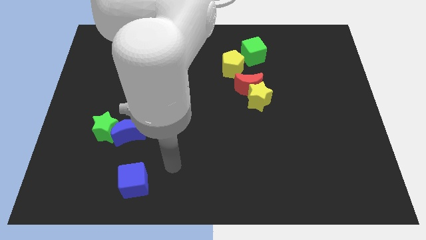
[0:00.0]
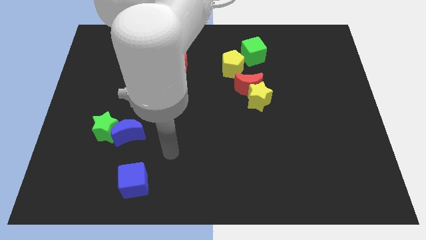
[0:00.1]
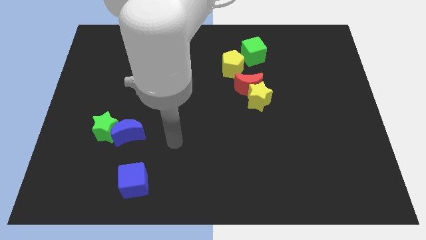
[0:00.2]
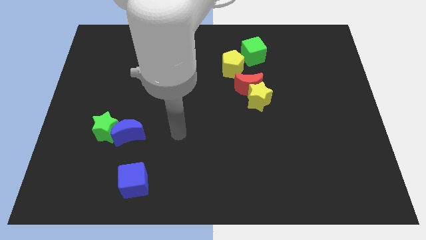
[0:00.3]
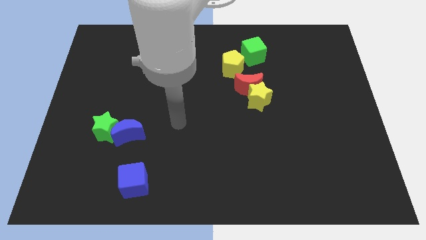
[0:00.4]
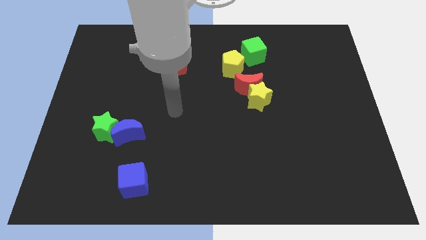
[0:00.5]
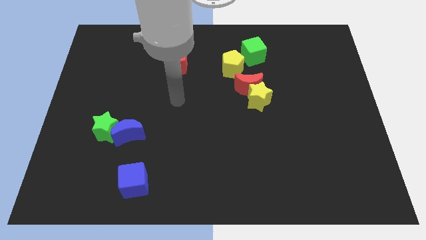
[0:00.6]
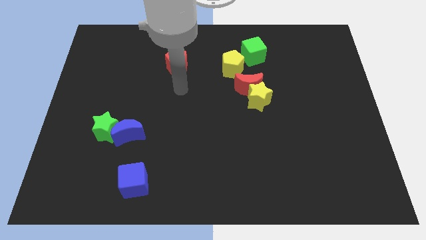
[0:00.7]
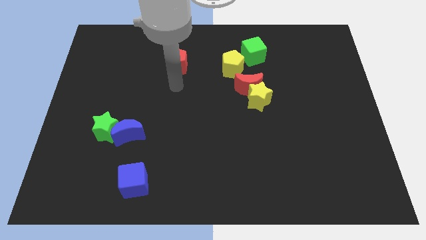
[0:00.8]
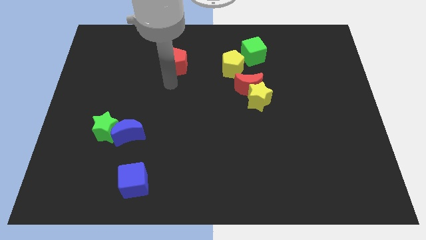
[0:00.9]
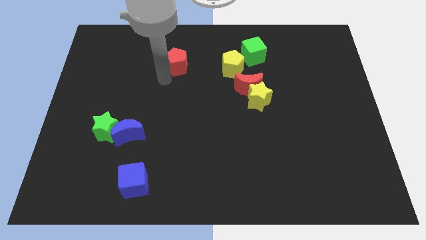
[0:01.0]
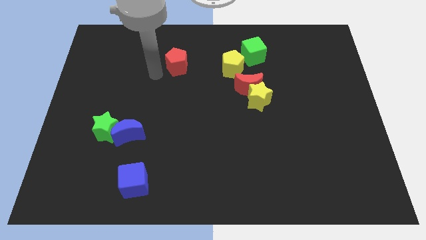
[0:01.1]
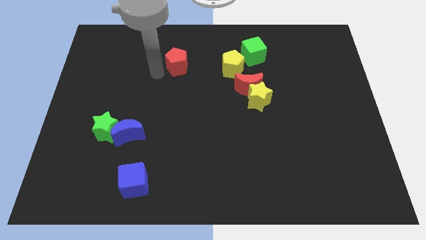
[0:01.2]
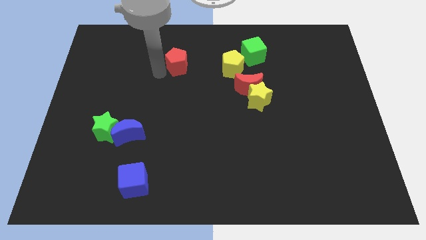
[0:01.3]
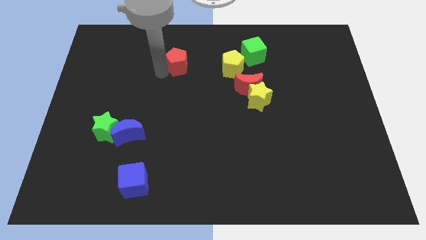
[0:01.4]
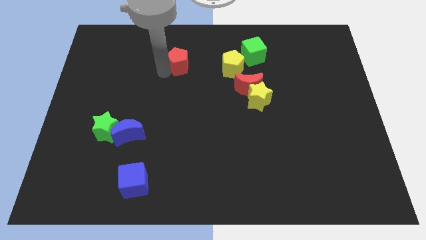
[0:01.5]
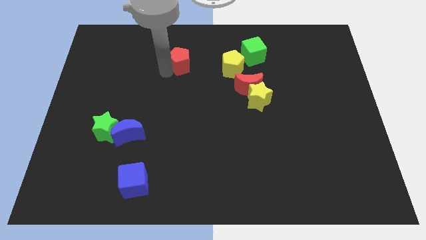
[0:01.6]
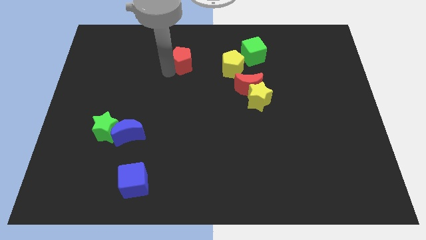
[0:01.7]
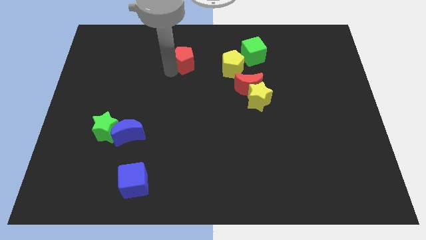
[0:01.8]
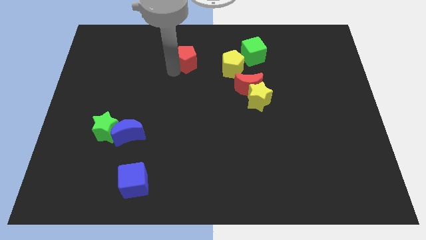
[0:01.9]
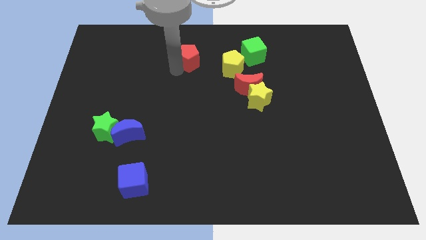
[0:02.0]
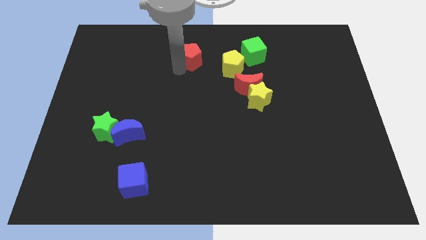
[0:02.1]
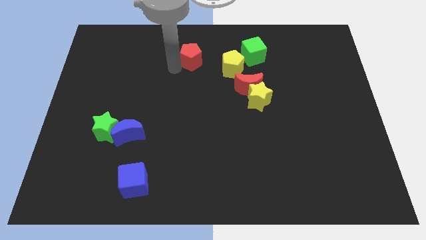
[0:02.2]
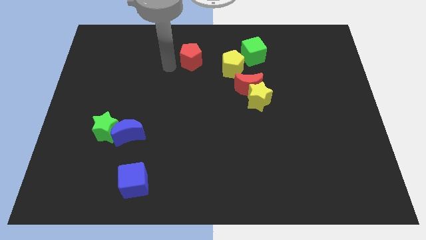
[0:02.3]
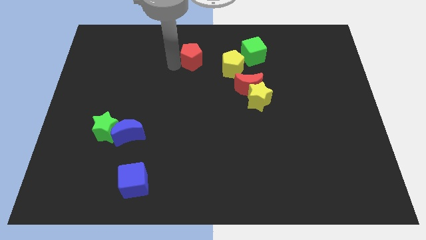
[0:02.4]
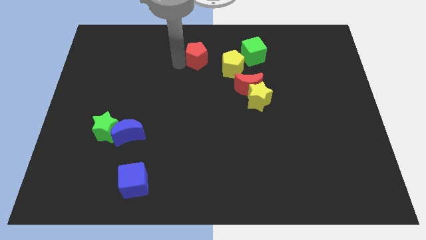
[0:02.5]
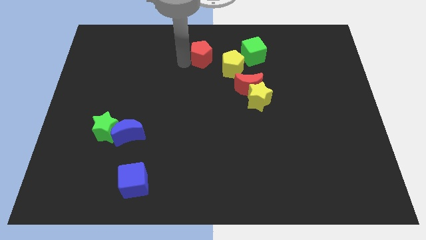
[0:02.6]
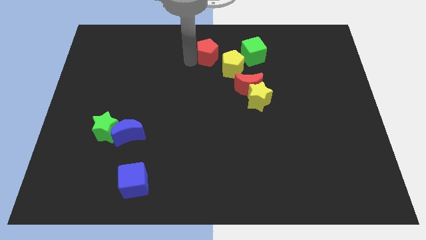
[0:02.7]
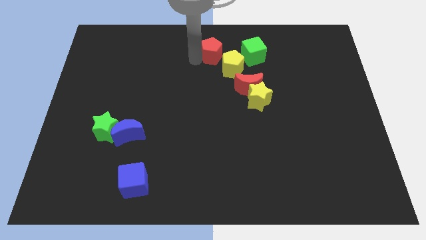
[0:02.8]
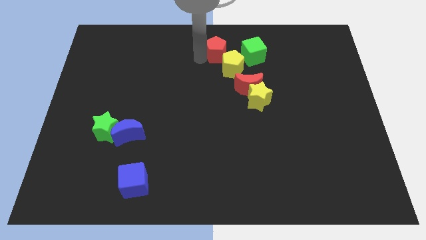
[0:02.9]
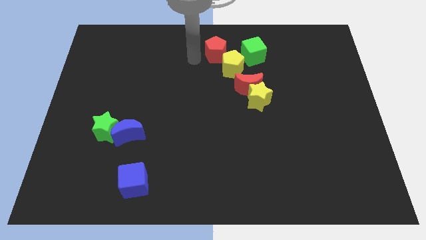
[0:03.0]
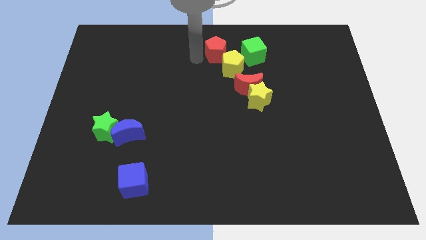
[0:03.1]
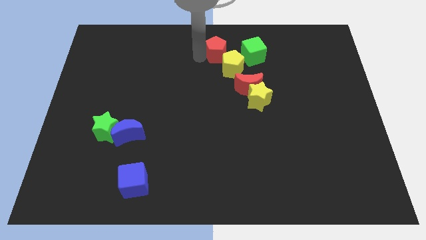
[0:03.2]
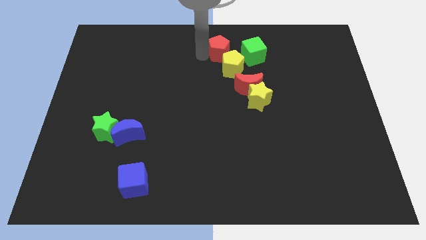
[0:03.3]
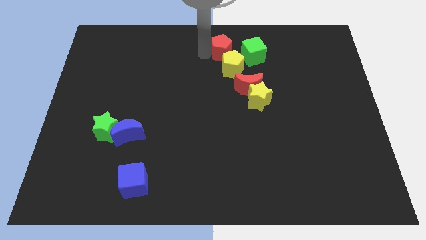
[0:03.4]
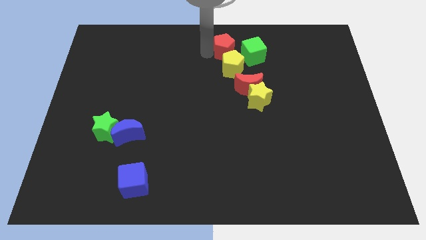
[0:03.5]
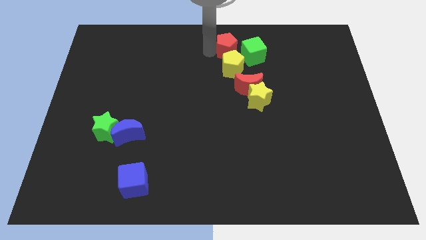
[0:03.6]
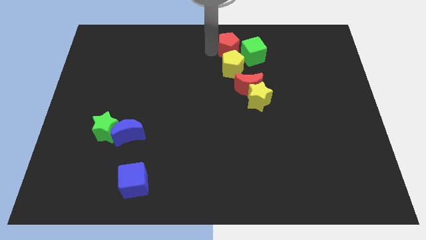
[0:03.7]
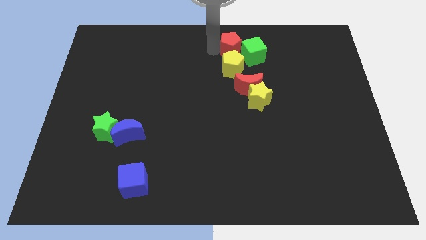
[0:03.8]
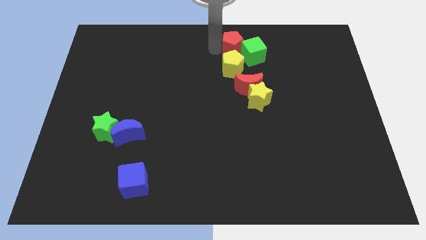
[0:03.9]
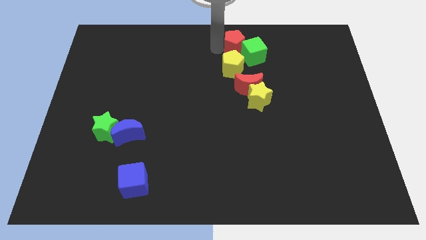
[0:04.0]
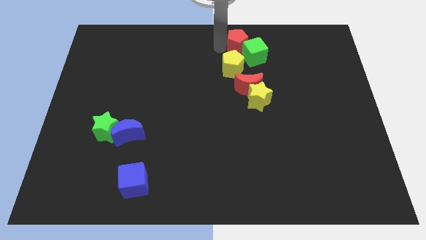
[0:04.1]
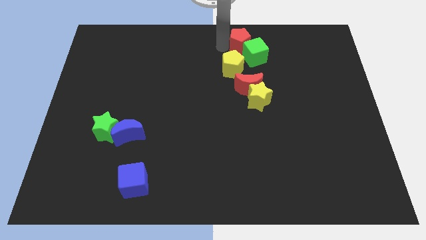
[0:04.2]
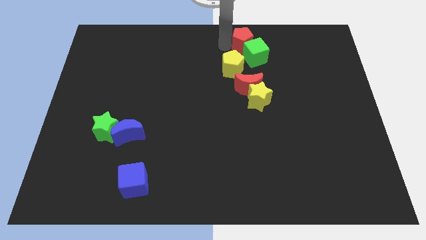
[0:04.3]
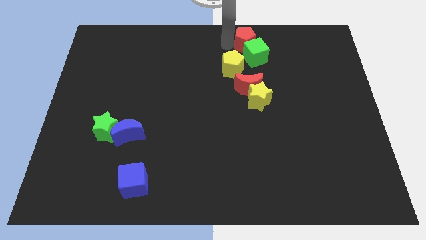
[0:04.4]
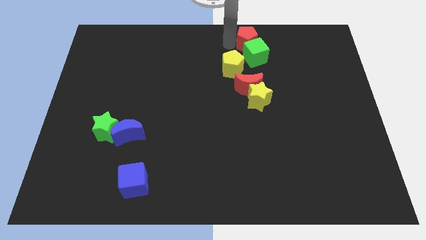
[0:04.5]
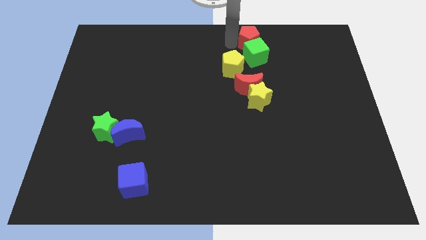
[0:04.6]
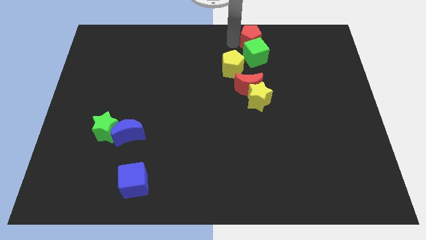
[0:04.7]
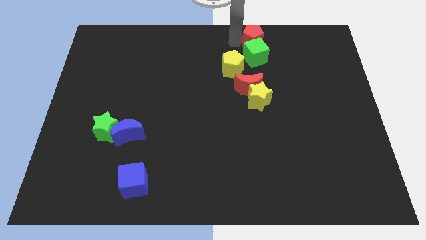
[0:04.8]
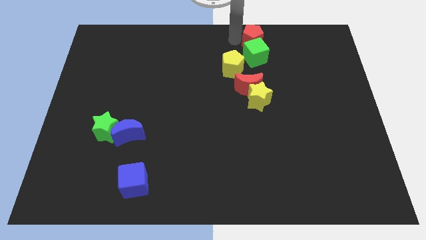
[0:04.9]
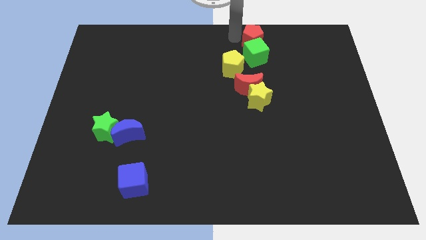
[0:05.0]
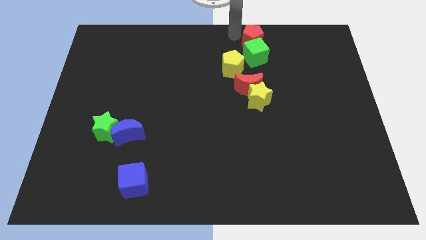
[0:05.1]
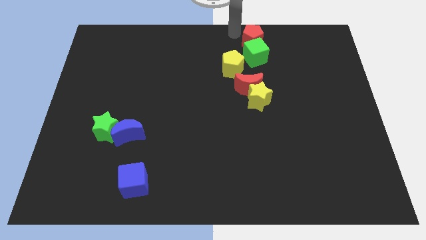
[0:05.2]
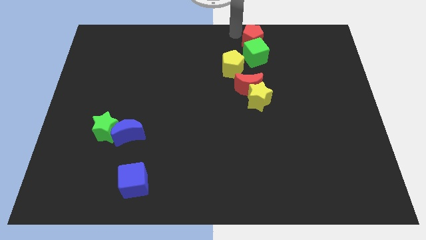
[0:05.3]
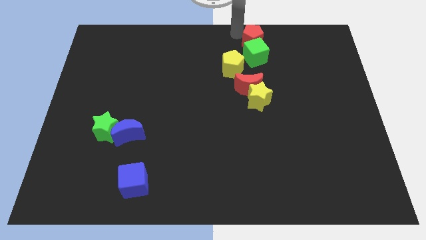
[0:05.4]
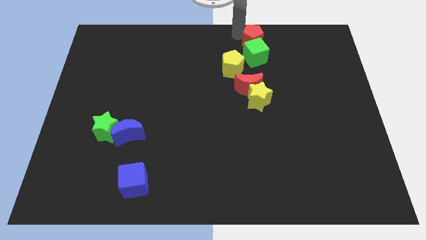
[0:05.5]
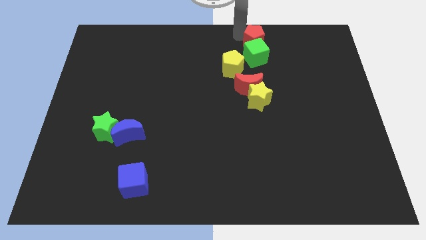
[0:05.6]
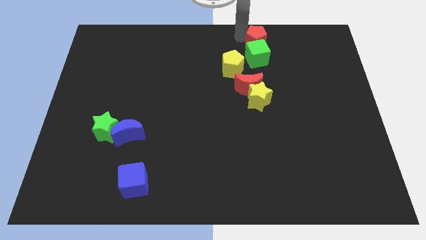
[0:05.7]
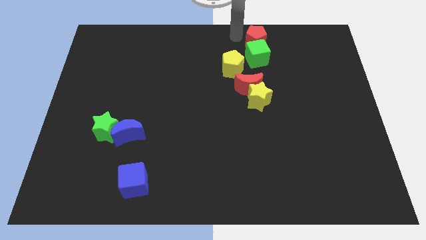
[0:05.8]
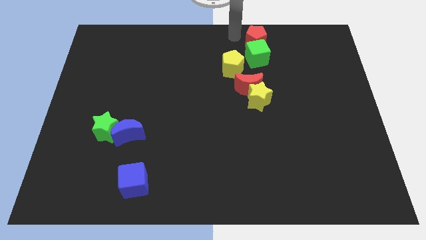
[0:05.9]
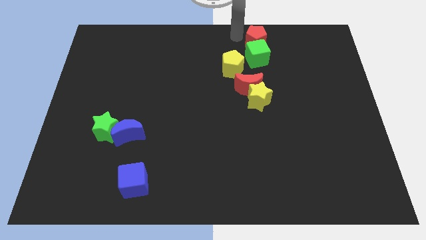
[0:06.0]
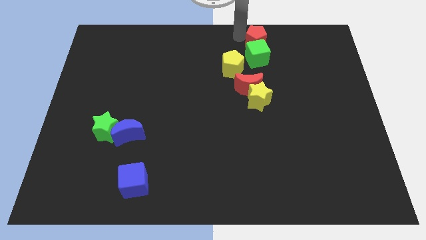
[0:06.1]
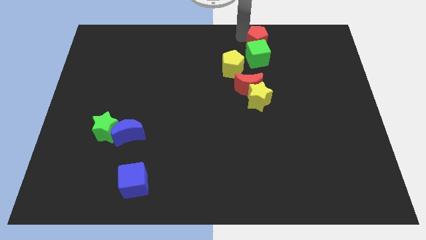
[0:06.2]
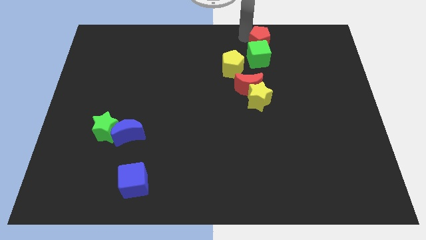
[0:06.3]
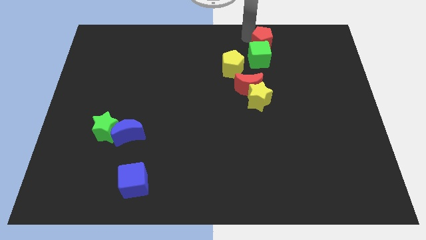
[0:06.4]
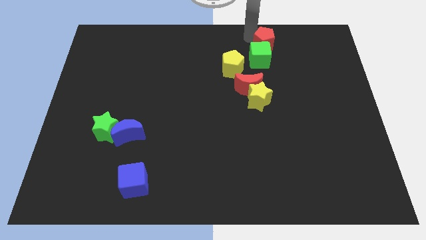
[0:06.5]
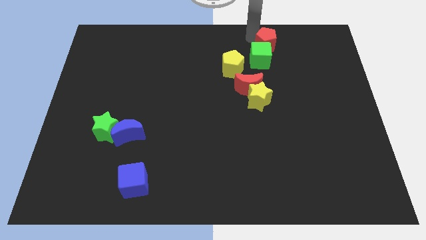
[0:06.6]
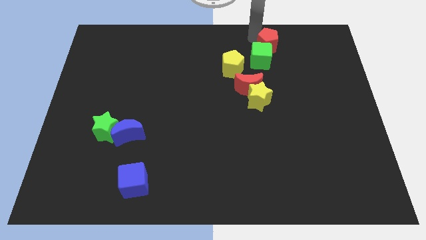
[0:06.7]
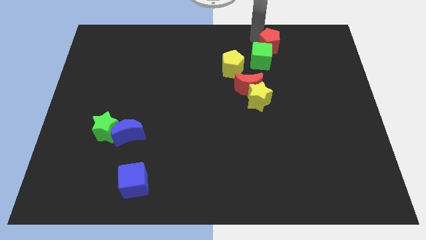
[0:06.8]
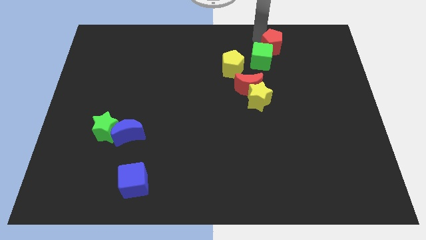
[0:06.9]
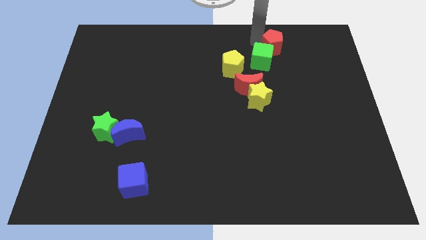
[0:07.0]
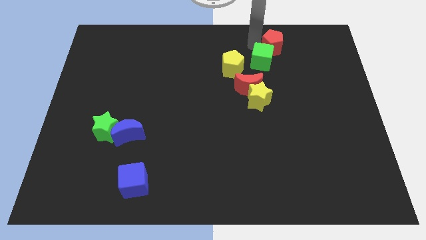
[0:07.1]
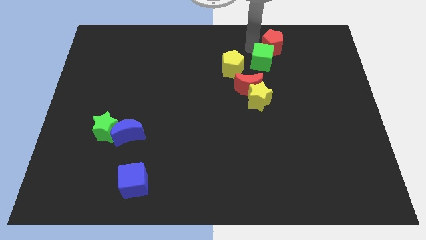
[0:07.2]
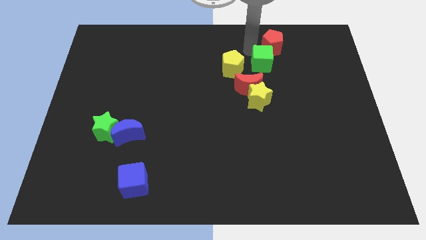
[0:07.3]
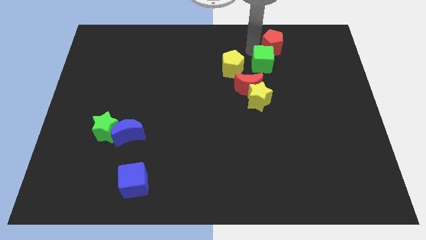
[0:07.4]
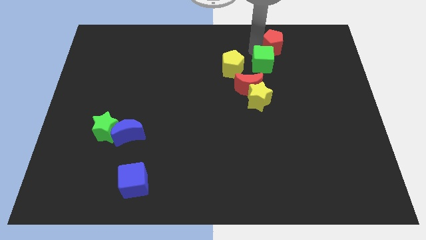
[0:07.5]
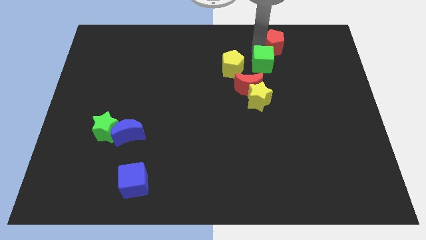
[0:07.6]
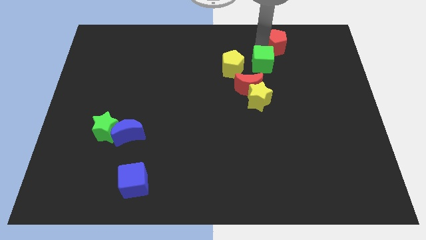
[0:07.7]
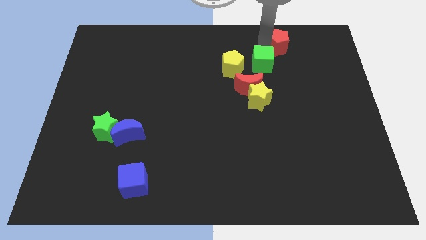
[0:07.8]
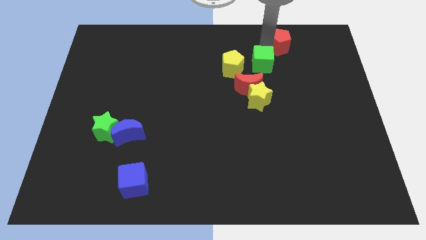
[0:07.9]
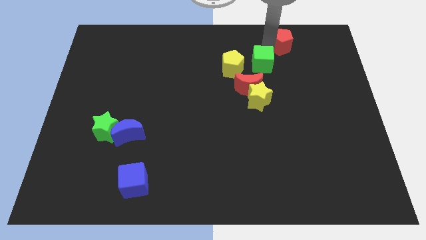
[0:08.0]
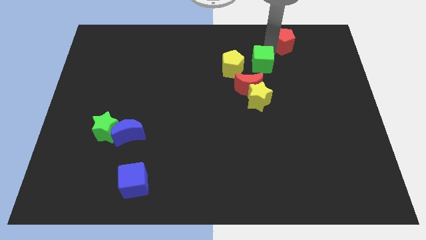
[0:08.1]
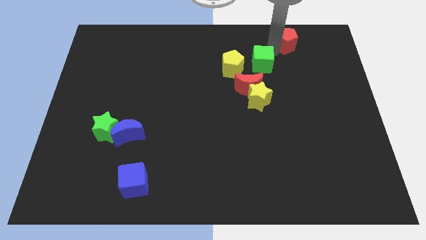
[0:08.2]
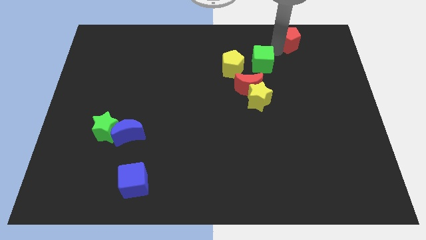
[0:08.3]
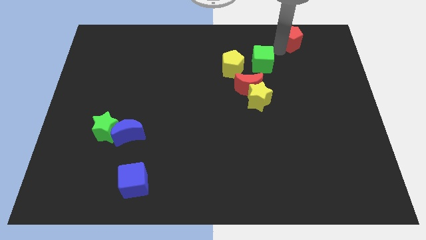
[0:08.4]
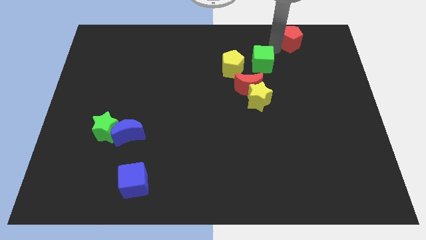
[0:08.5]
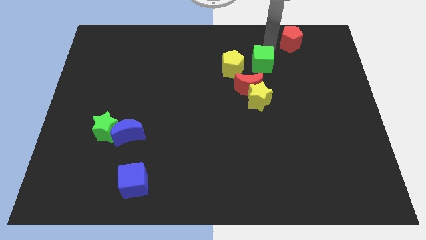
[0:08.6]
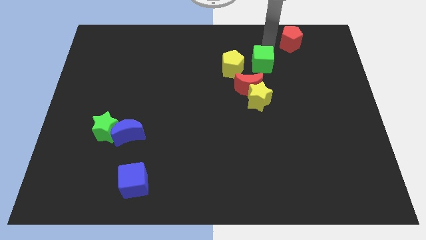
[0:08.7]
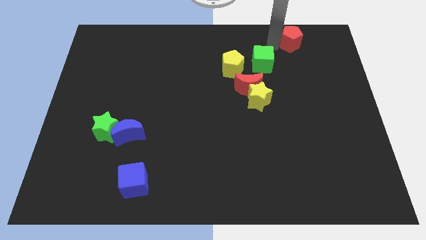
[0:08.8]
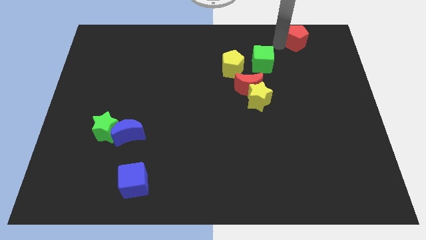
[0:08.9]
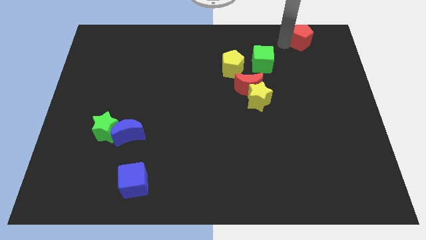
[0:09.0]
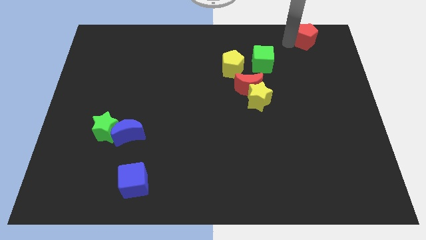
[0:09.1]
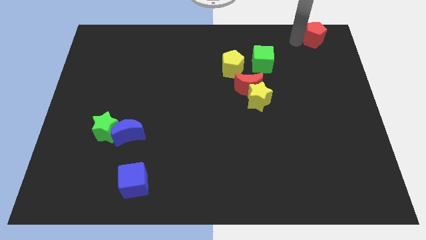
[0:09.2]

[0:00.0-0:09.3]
slide the red pentagon to the top right corner
